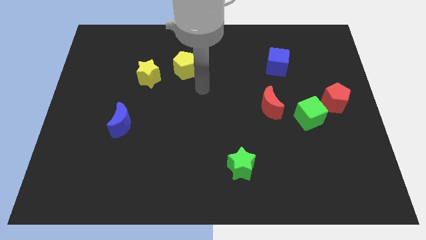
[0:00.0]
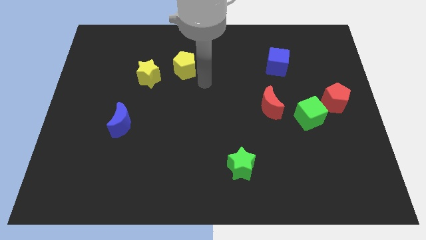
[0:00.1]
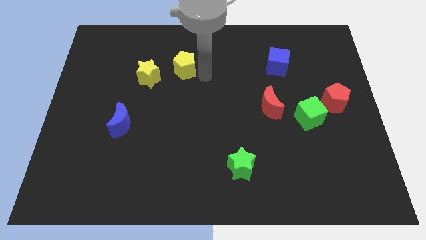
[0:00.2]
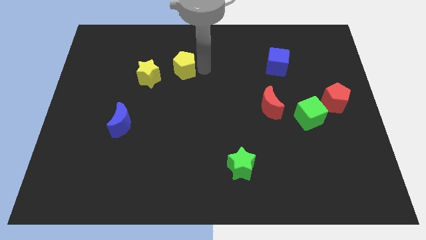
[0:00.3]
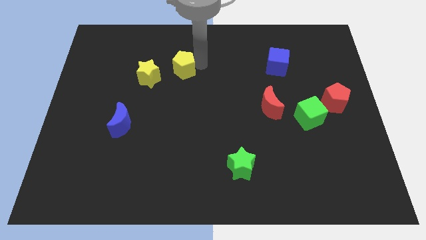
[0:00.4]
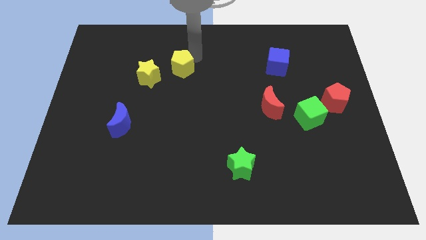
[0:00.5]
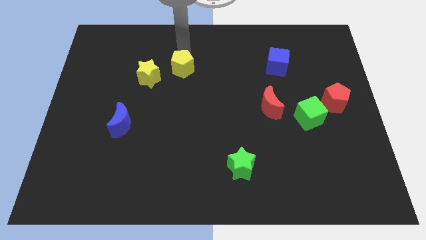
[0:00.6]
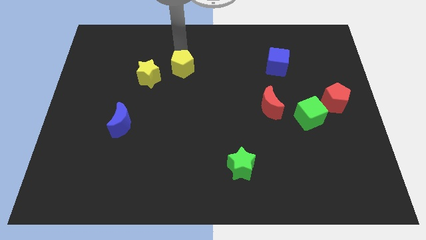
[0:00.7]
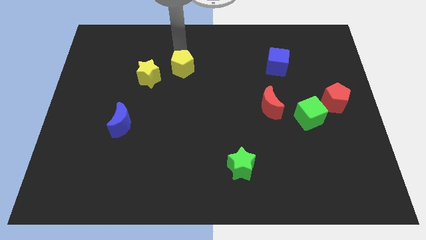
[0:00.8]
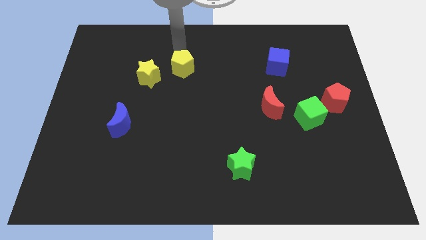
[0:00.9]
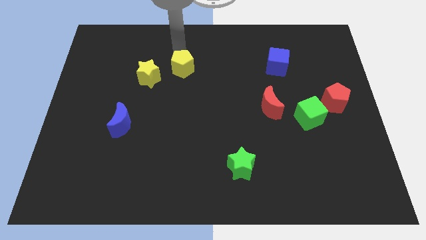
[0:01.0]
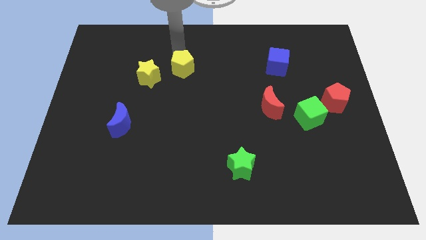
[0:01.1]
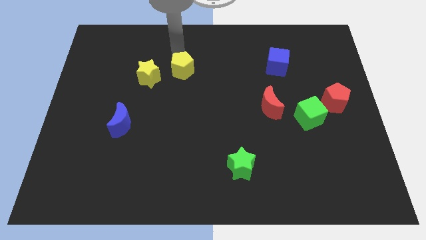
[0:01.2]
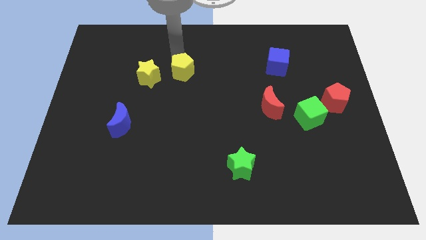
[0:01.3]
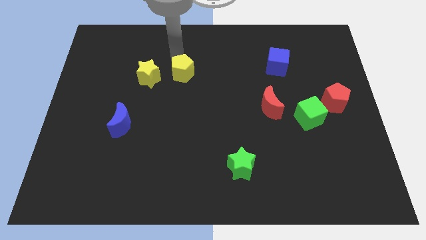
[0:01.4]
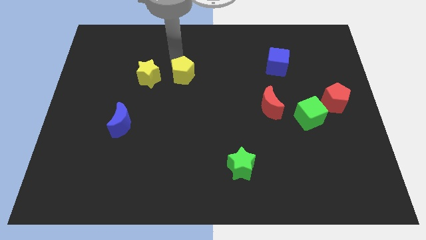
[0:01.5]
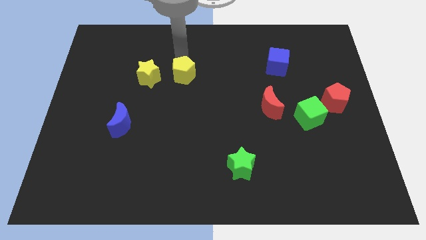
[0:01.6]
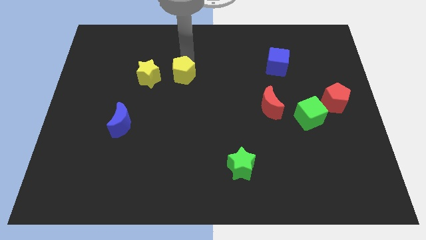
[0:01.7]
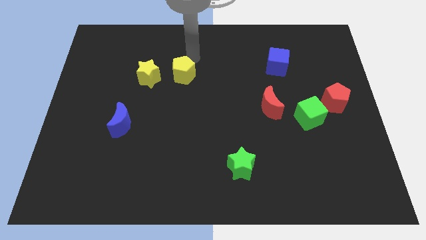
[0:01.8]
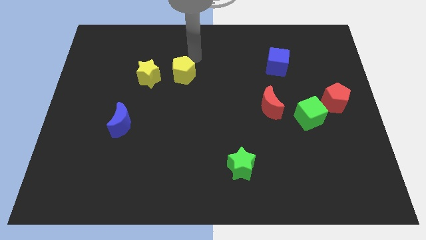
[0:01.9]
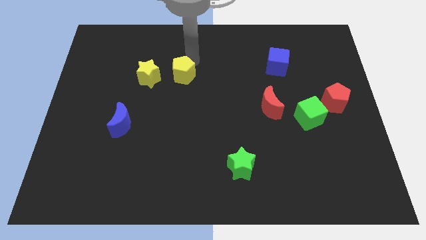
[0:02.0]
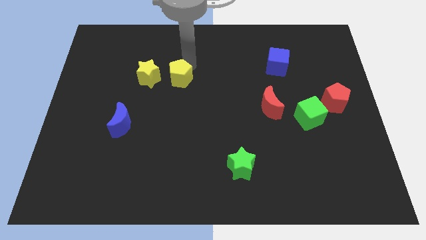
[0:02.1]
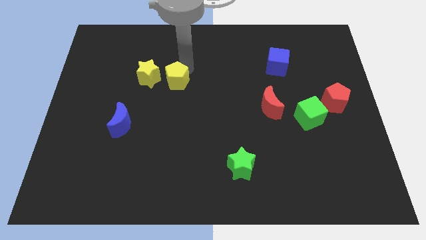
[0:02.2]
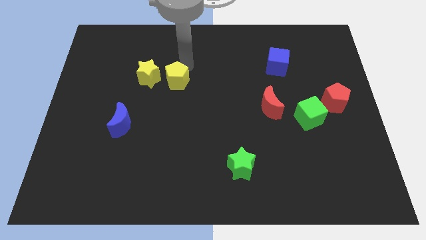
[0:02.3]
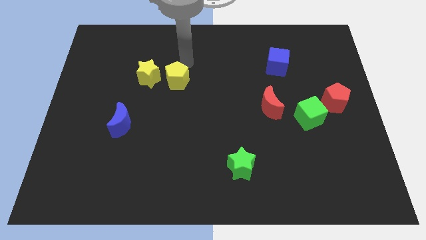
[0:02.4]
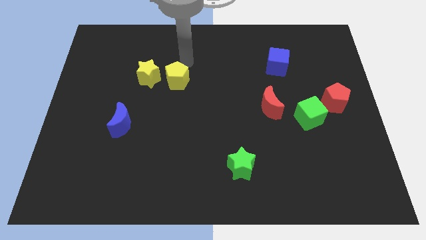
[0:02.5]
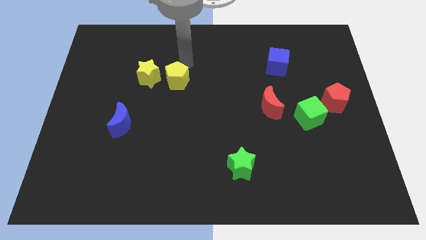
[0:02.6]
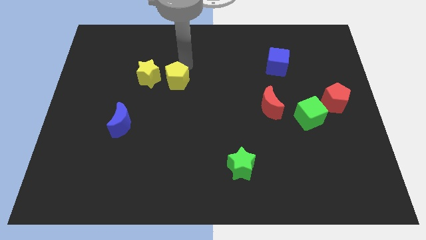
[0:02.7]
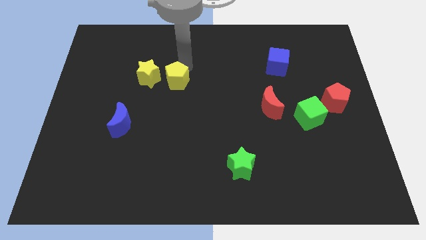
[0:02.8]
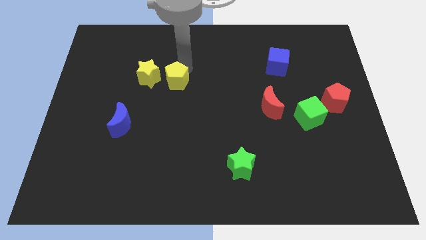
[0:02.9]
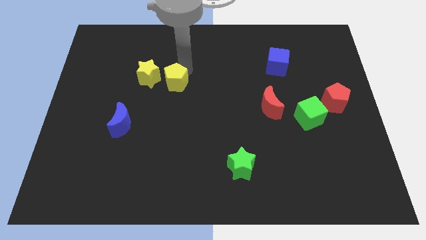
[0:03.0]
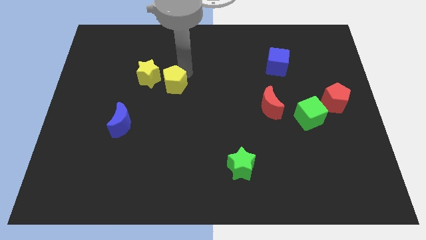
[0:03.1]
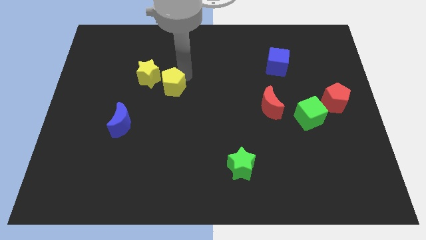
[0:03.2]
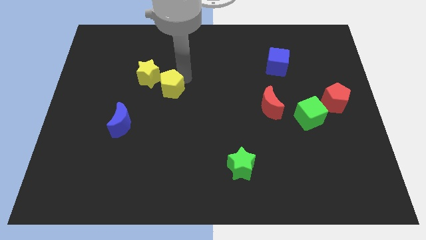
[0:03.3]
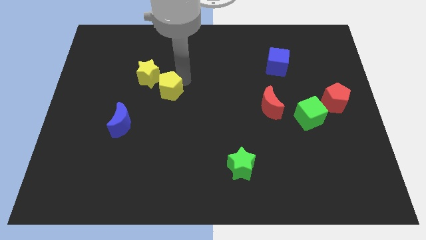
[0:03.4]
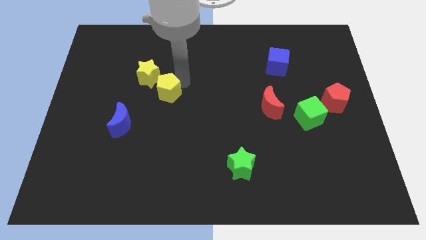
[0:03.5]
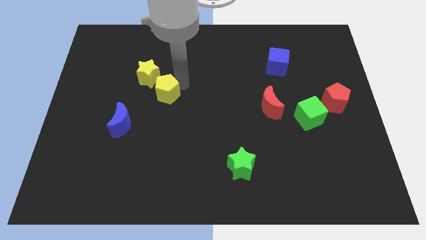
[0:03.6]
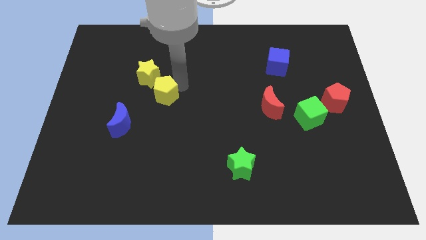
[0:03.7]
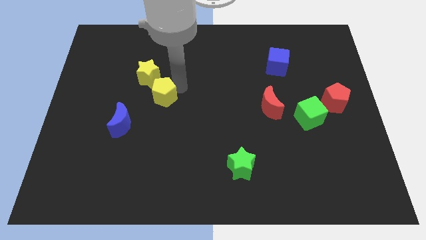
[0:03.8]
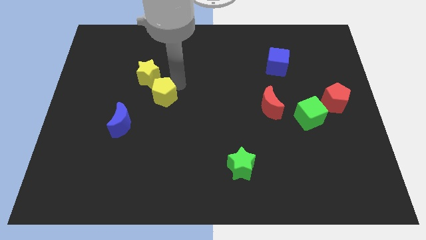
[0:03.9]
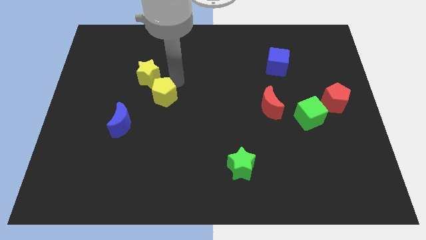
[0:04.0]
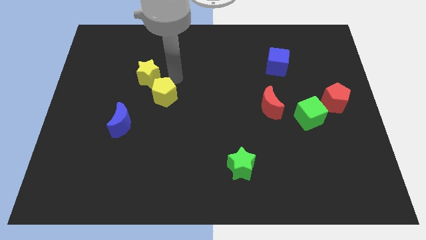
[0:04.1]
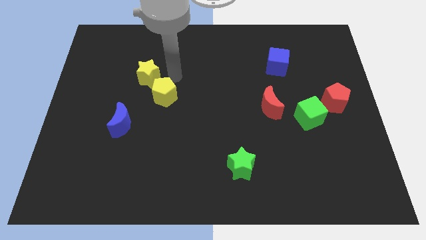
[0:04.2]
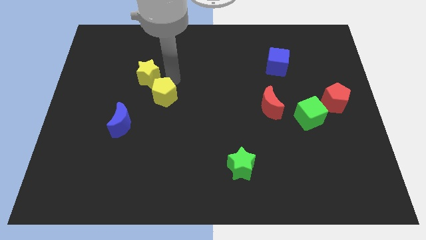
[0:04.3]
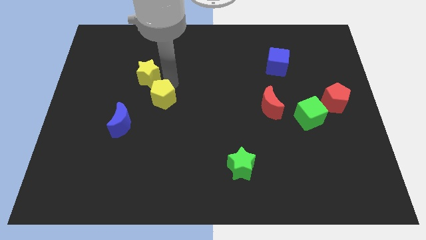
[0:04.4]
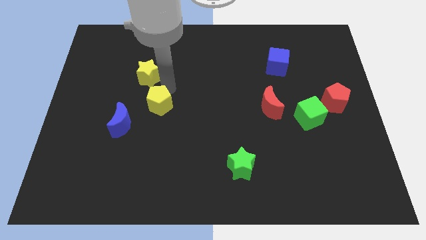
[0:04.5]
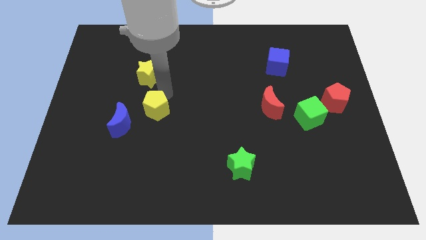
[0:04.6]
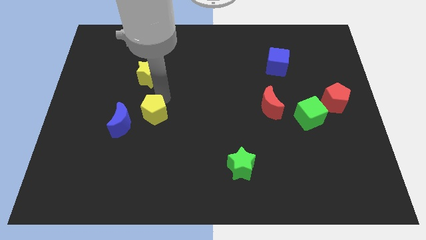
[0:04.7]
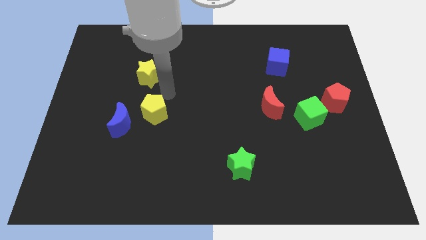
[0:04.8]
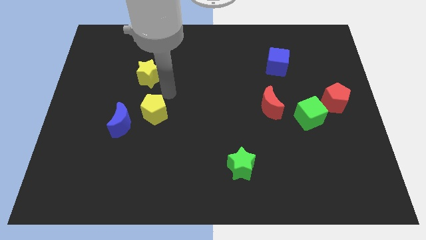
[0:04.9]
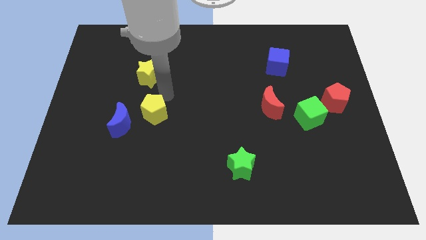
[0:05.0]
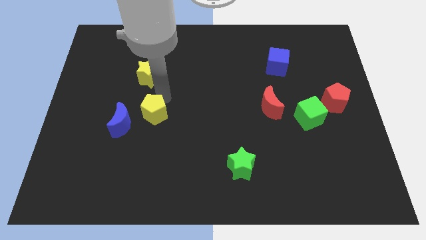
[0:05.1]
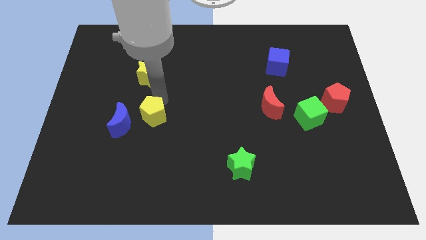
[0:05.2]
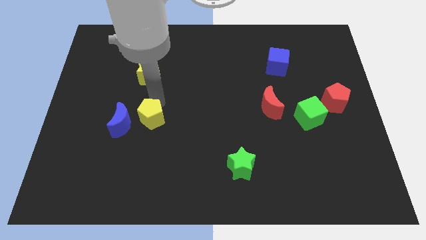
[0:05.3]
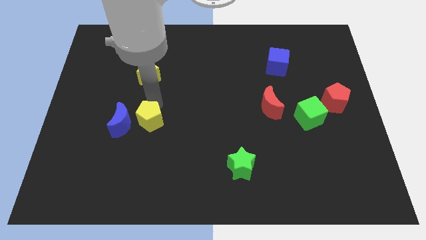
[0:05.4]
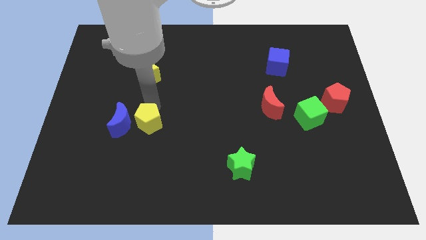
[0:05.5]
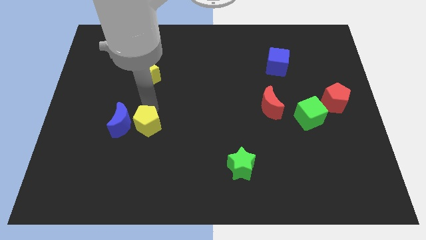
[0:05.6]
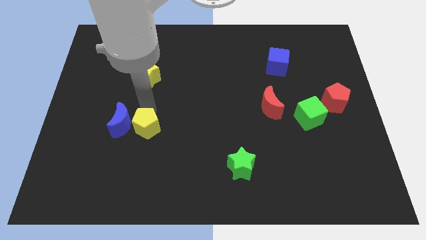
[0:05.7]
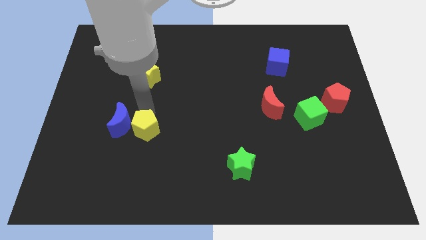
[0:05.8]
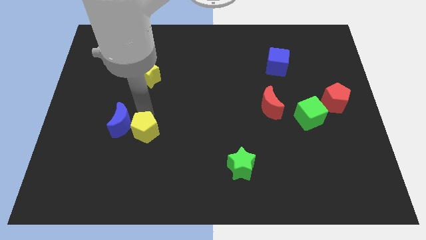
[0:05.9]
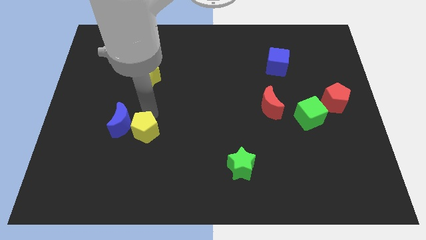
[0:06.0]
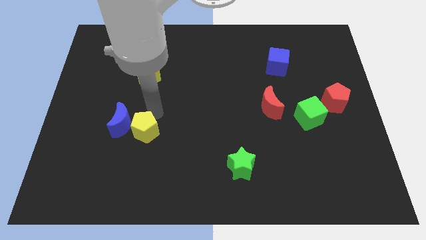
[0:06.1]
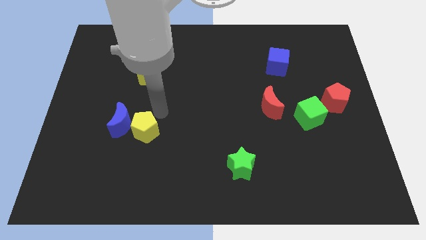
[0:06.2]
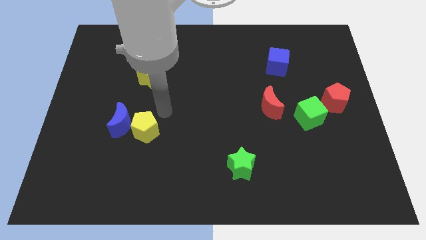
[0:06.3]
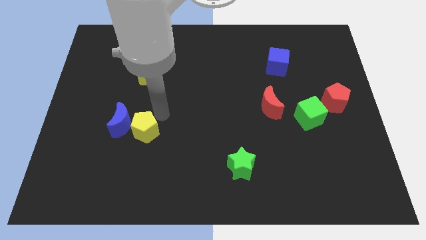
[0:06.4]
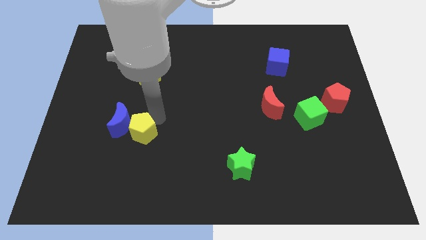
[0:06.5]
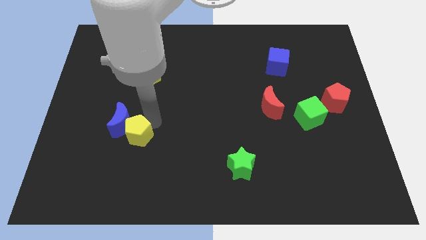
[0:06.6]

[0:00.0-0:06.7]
put the yellow pentagon below the blue moon
